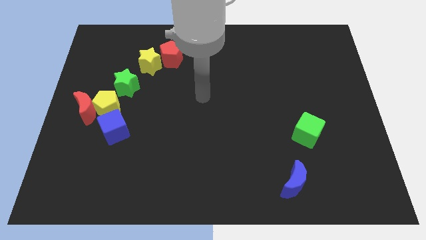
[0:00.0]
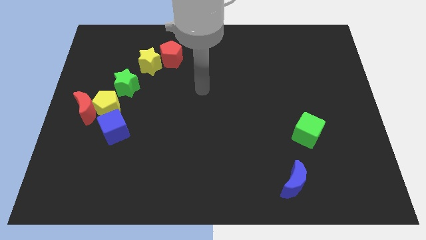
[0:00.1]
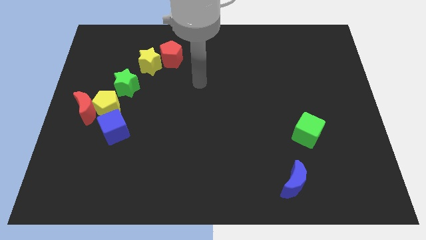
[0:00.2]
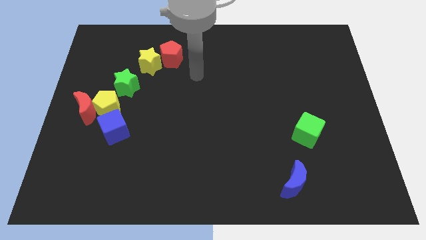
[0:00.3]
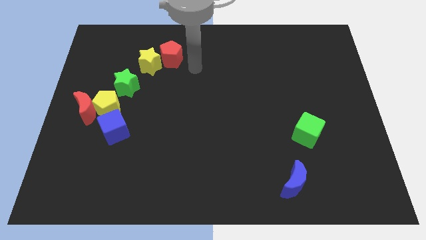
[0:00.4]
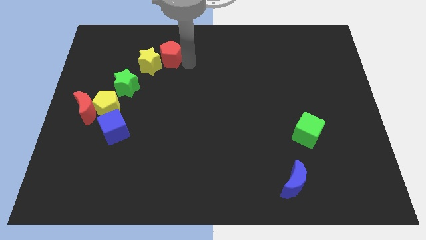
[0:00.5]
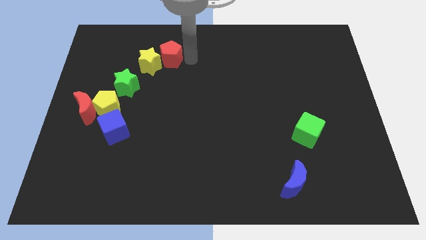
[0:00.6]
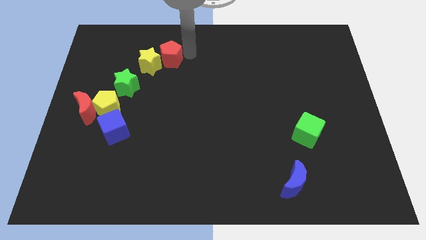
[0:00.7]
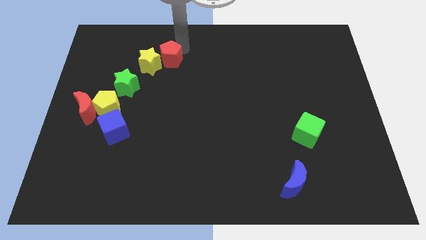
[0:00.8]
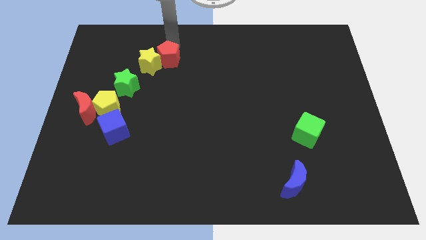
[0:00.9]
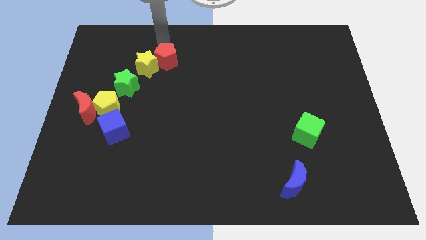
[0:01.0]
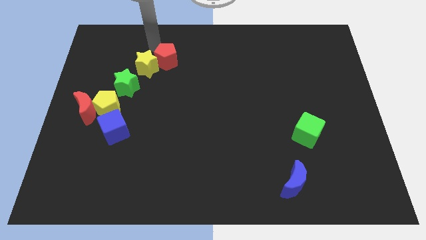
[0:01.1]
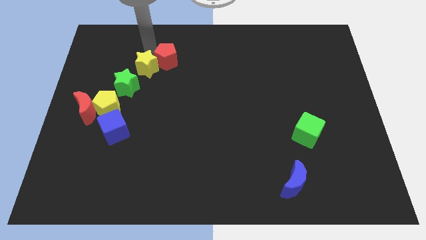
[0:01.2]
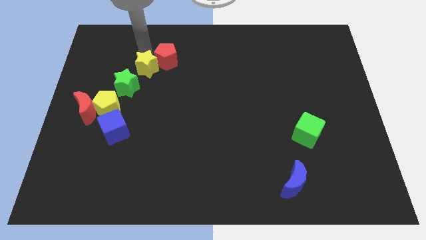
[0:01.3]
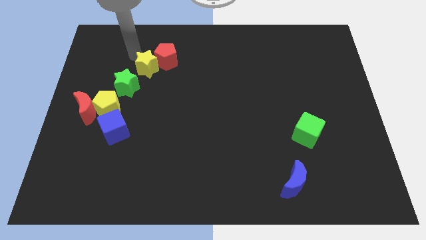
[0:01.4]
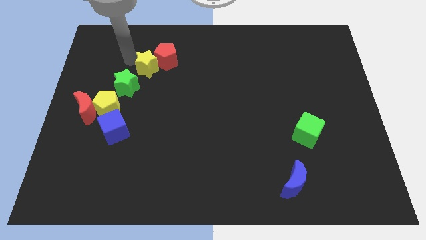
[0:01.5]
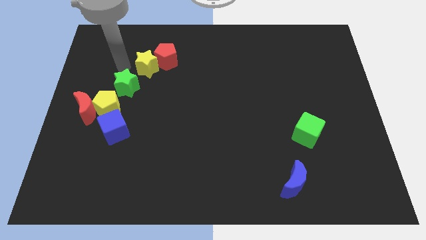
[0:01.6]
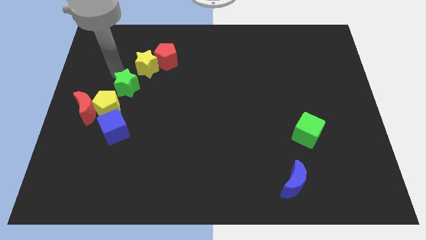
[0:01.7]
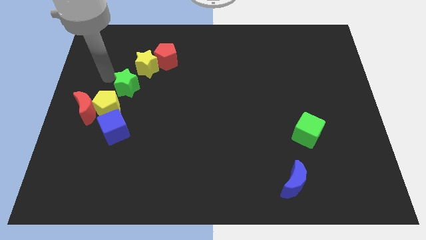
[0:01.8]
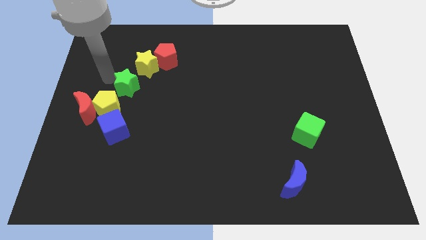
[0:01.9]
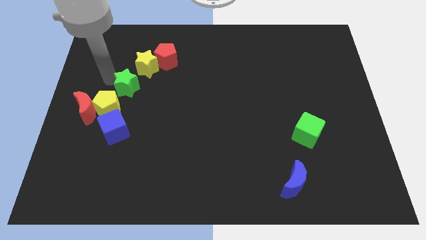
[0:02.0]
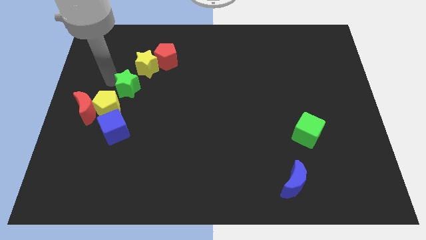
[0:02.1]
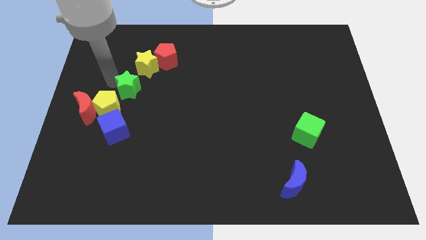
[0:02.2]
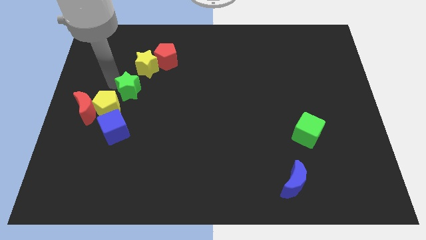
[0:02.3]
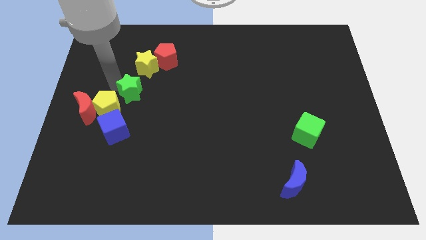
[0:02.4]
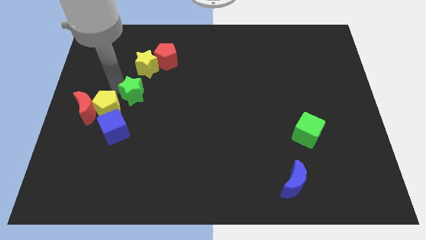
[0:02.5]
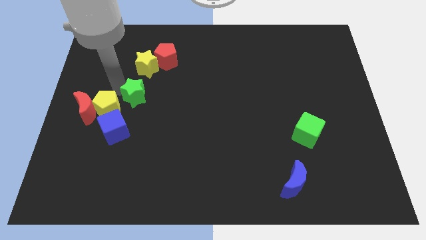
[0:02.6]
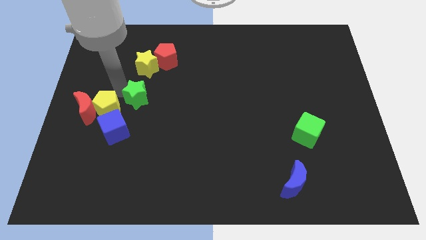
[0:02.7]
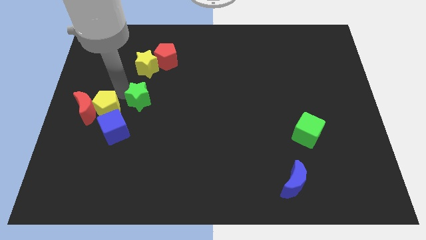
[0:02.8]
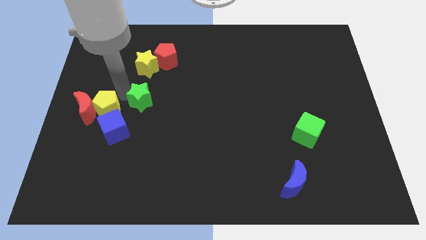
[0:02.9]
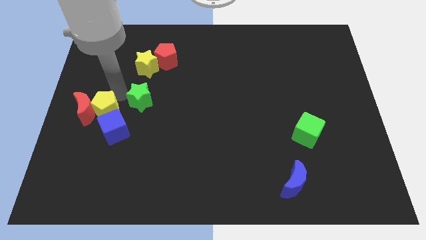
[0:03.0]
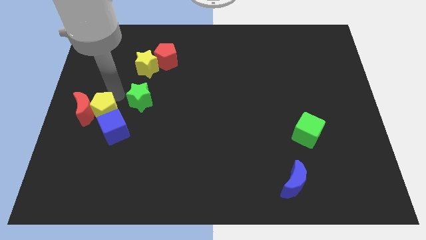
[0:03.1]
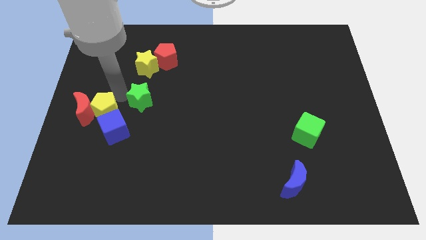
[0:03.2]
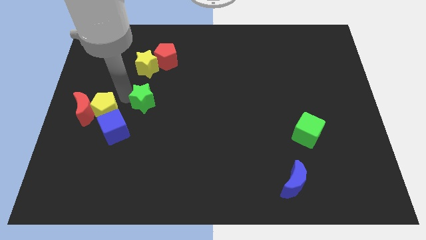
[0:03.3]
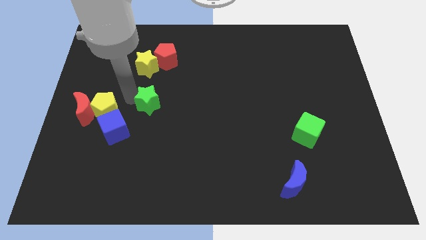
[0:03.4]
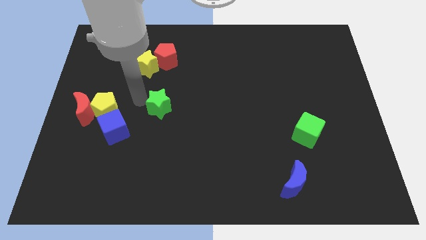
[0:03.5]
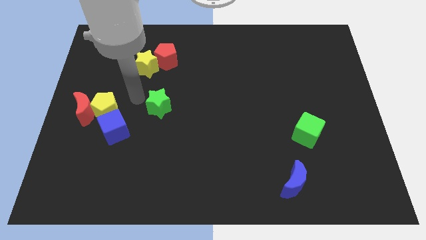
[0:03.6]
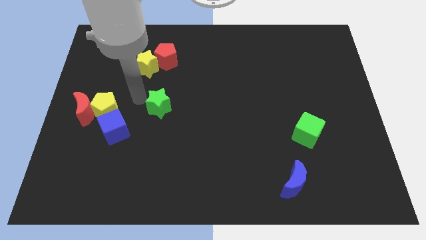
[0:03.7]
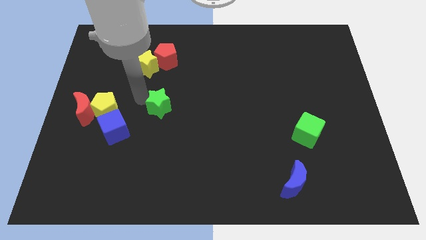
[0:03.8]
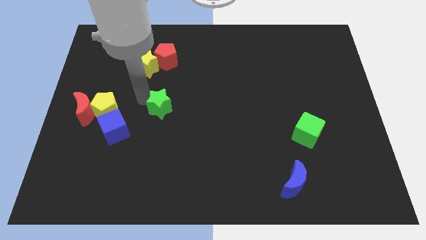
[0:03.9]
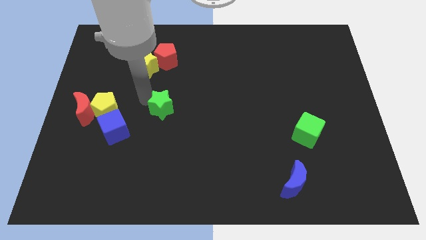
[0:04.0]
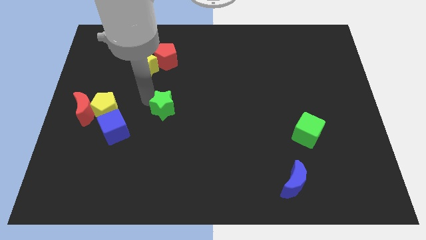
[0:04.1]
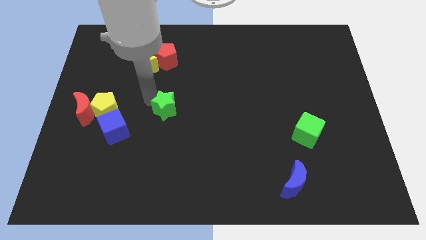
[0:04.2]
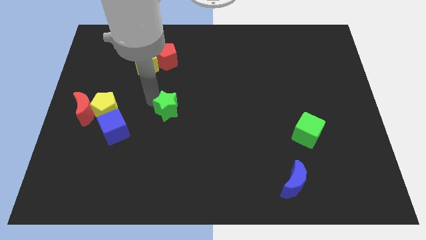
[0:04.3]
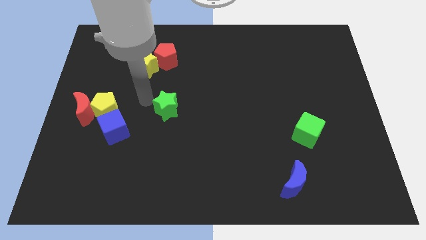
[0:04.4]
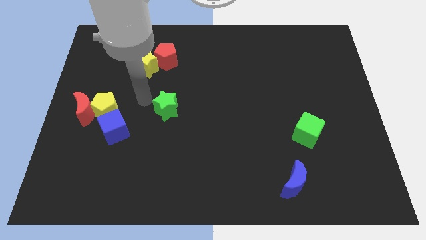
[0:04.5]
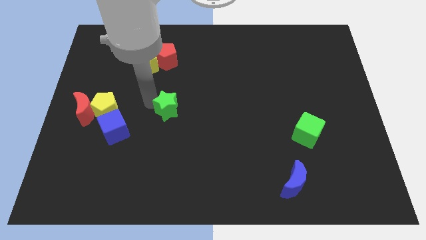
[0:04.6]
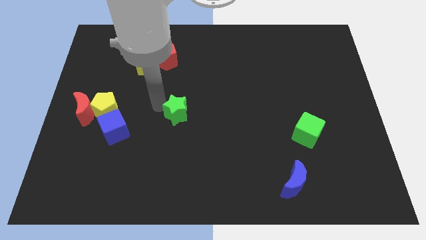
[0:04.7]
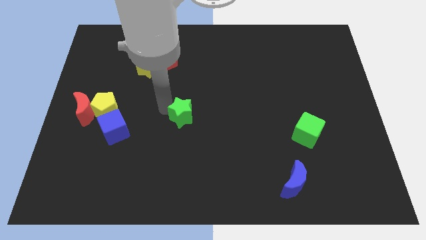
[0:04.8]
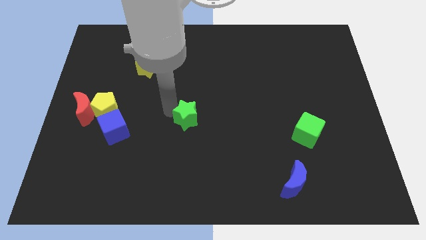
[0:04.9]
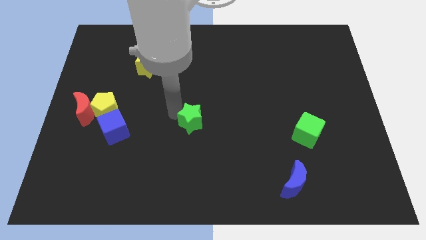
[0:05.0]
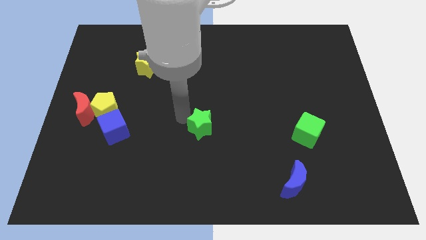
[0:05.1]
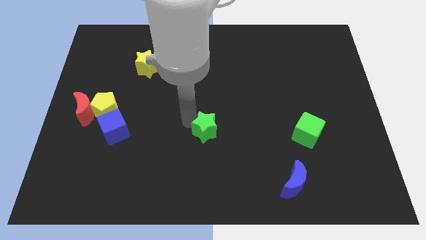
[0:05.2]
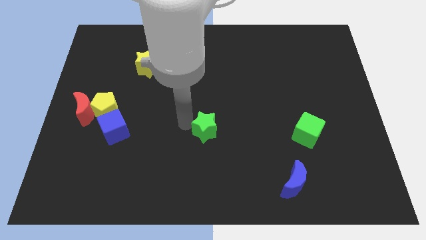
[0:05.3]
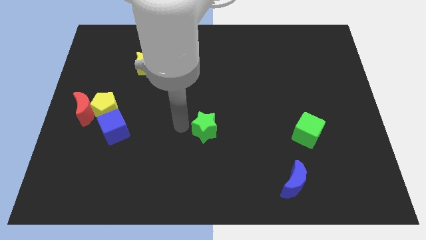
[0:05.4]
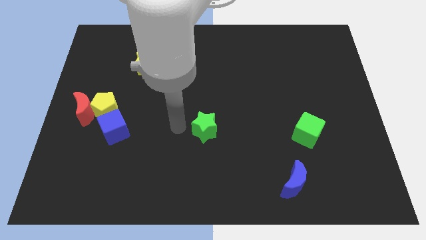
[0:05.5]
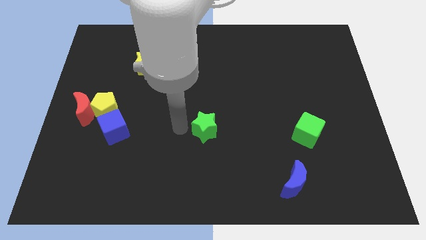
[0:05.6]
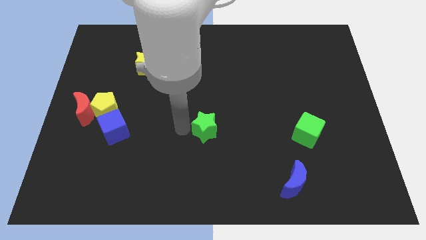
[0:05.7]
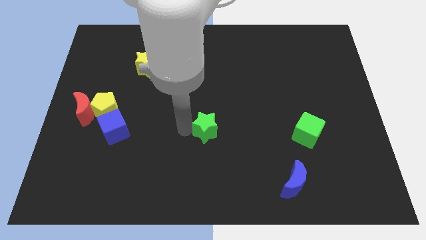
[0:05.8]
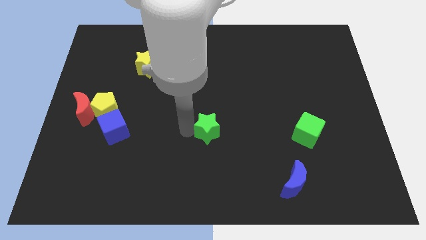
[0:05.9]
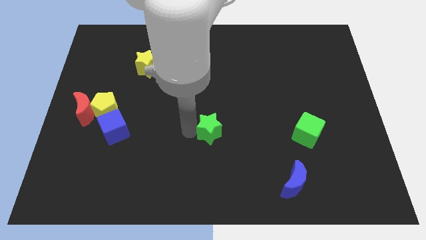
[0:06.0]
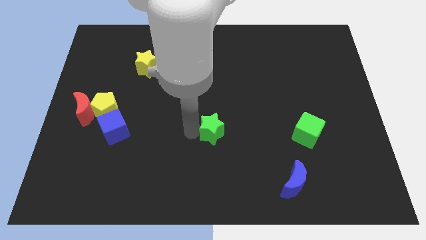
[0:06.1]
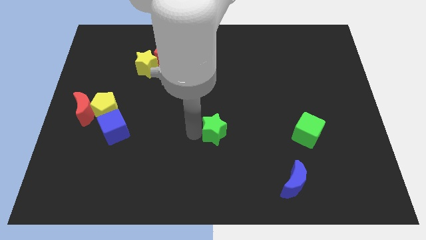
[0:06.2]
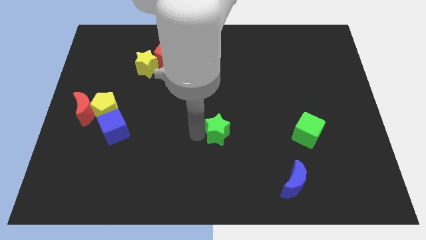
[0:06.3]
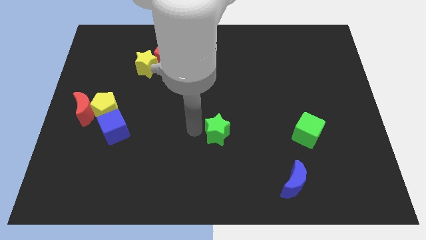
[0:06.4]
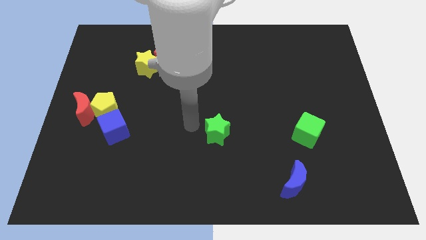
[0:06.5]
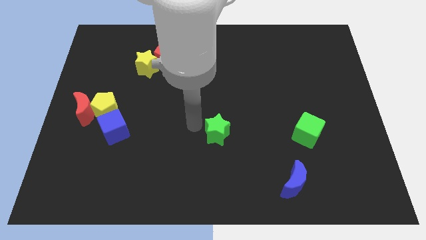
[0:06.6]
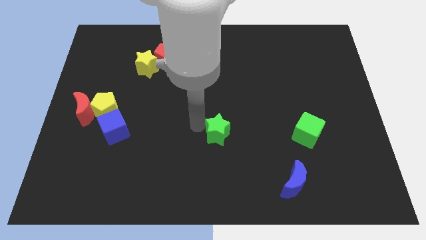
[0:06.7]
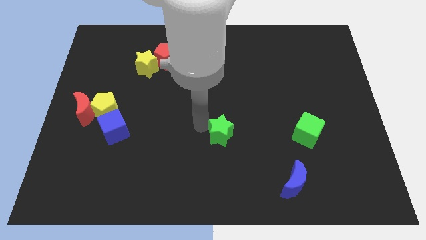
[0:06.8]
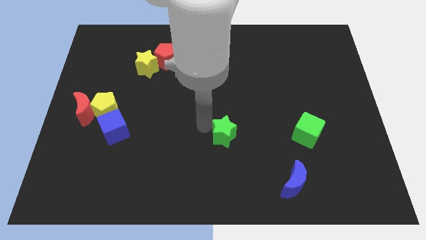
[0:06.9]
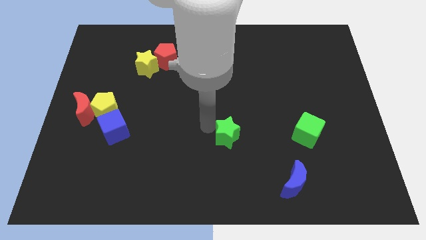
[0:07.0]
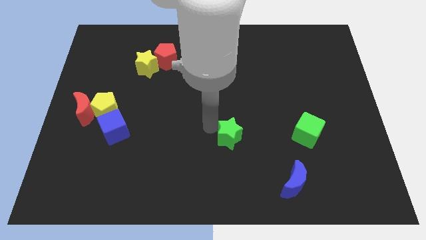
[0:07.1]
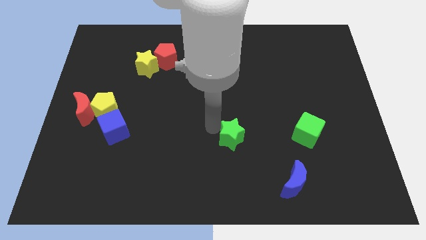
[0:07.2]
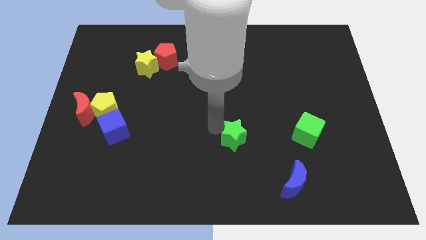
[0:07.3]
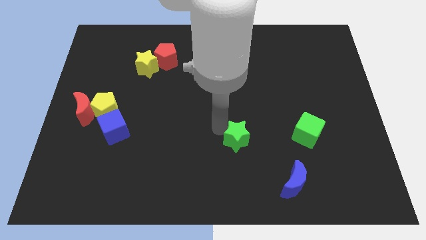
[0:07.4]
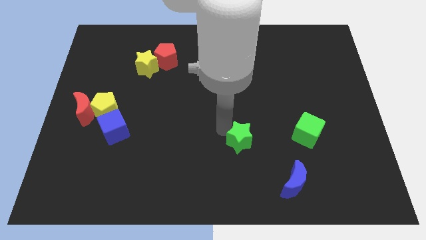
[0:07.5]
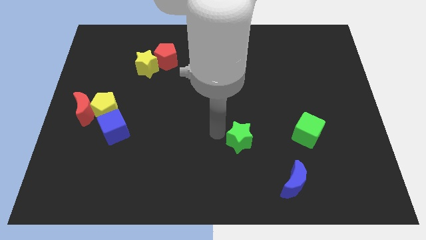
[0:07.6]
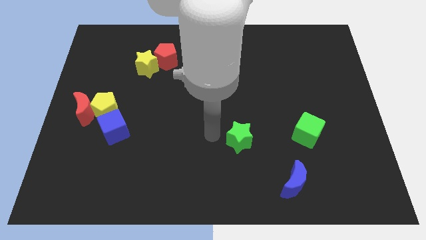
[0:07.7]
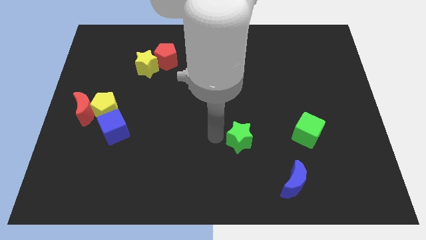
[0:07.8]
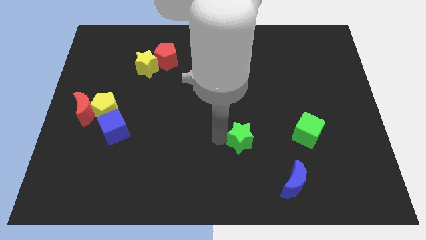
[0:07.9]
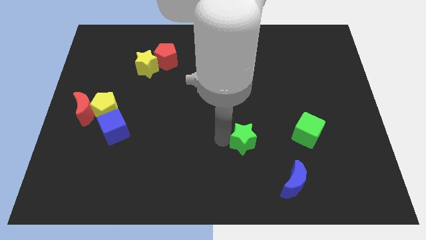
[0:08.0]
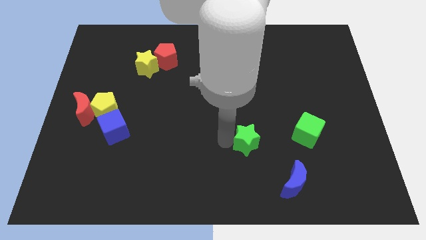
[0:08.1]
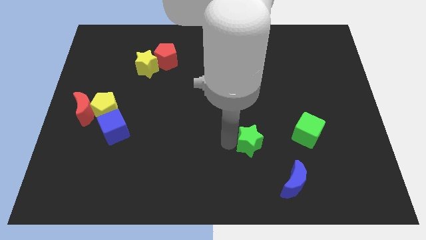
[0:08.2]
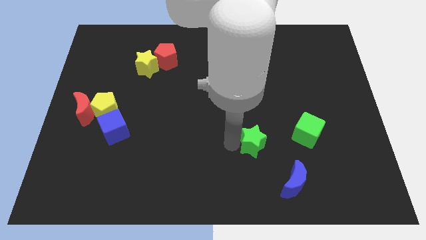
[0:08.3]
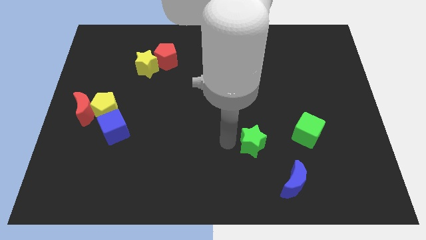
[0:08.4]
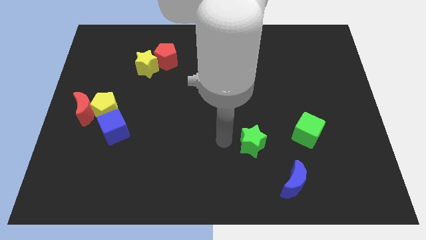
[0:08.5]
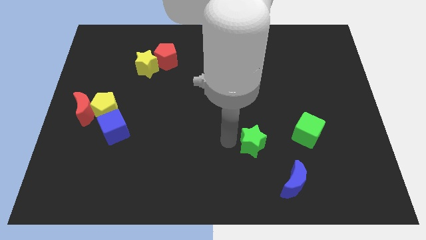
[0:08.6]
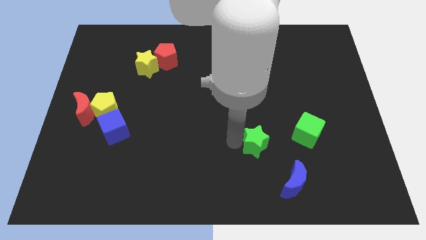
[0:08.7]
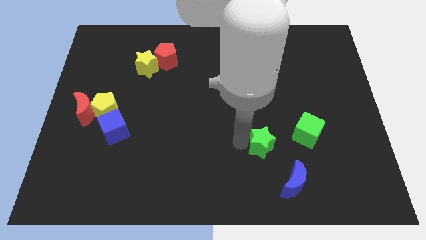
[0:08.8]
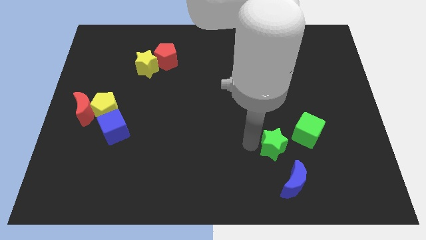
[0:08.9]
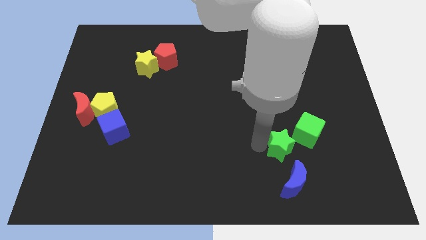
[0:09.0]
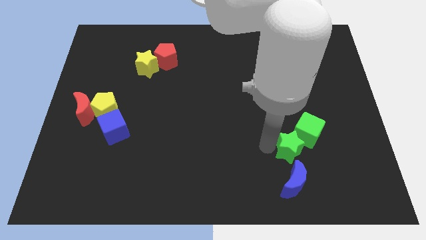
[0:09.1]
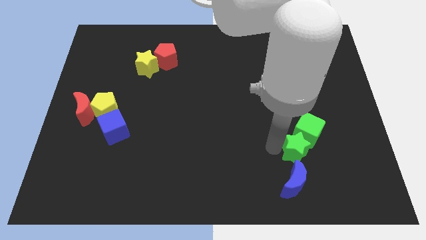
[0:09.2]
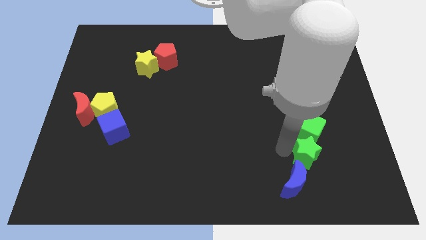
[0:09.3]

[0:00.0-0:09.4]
move the green star to the bottom right side of the green cube
